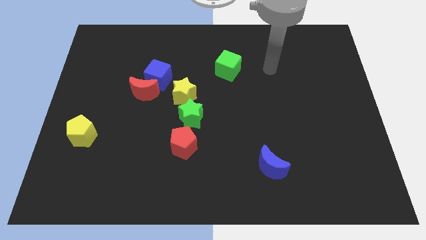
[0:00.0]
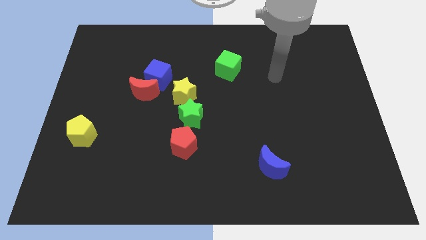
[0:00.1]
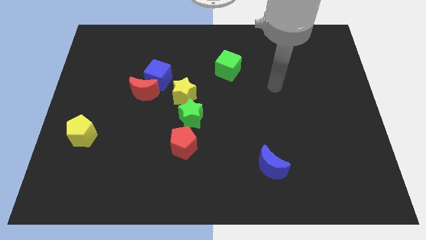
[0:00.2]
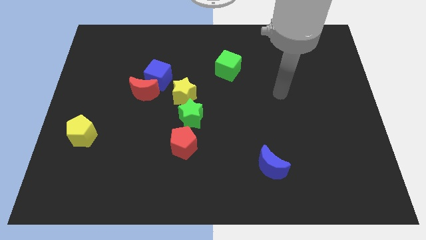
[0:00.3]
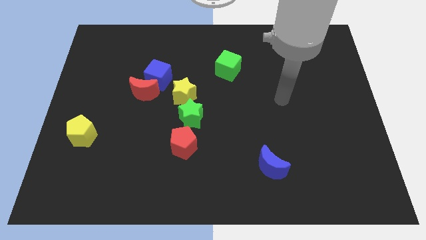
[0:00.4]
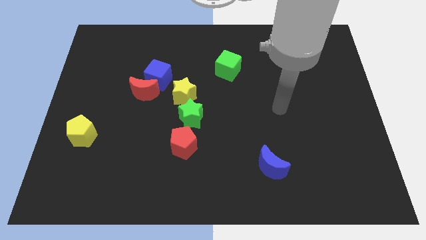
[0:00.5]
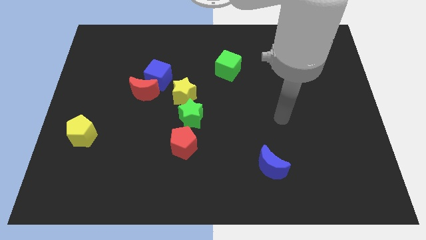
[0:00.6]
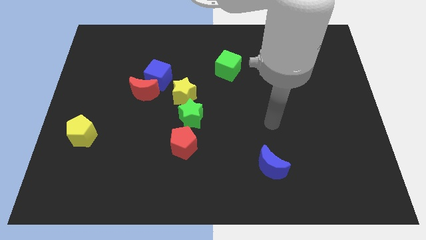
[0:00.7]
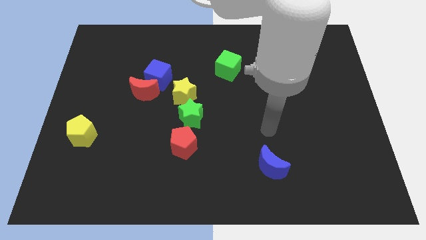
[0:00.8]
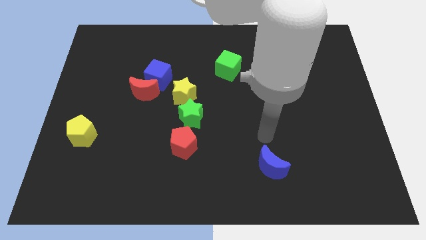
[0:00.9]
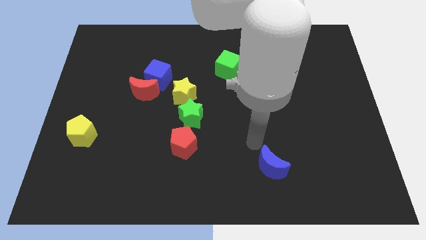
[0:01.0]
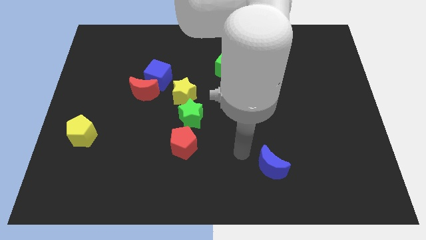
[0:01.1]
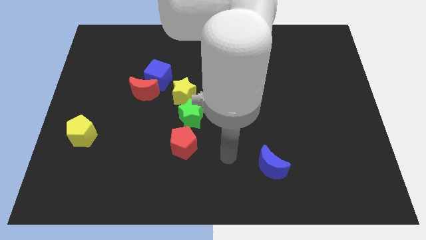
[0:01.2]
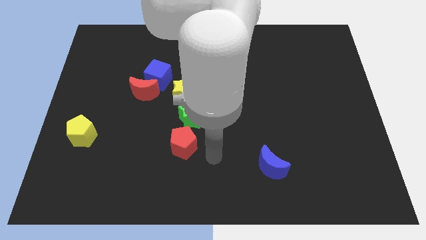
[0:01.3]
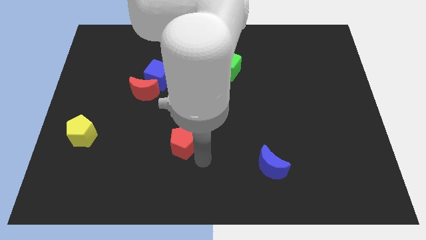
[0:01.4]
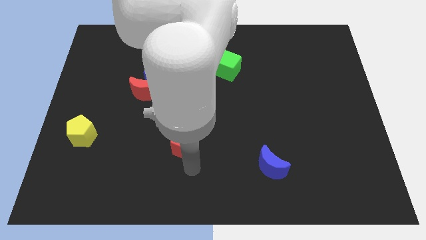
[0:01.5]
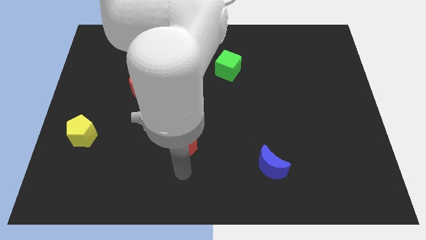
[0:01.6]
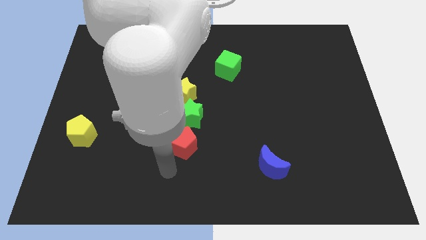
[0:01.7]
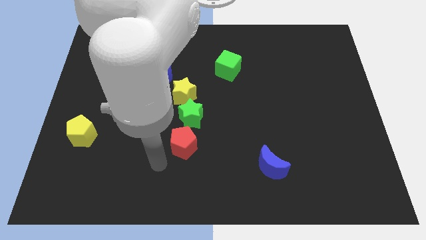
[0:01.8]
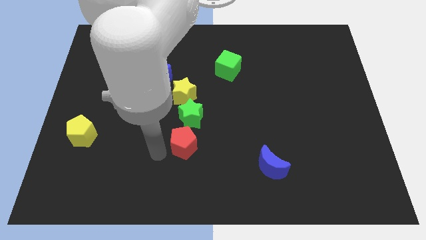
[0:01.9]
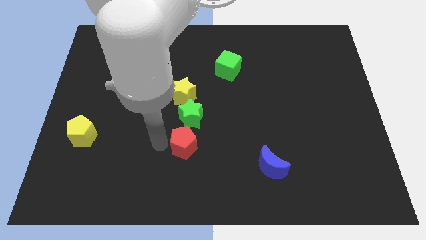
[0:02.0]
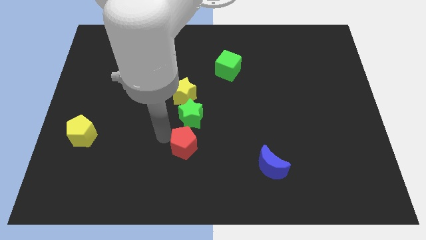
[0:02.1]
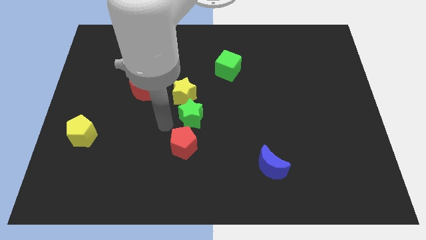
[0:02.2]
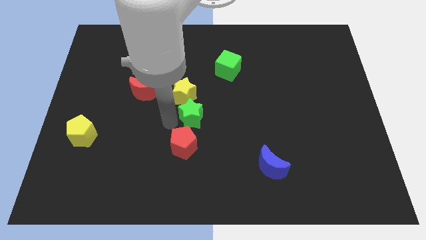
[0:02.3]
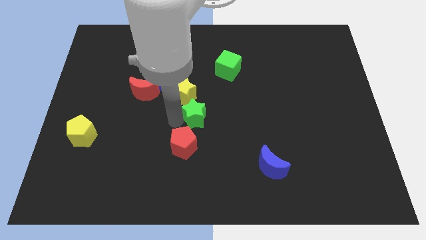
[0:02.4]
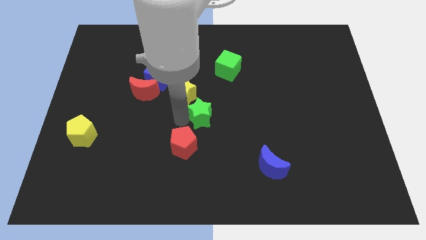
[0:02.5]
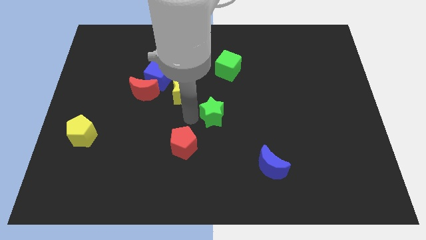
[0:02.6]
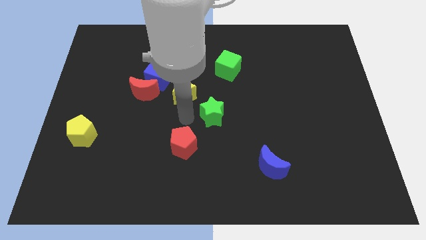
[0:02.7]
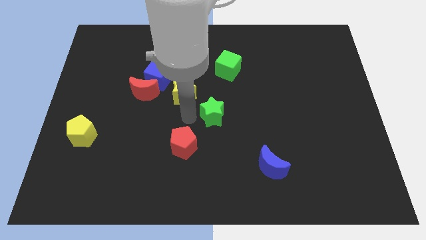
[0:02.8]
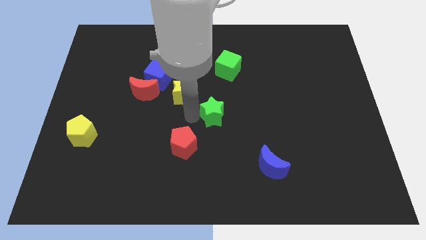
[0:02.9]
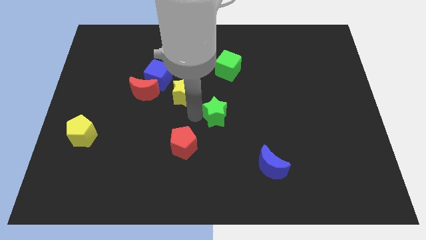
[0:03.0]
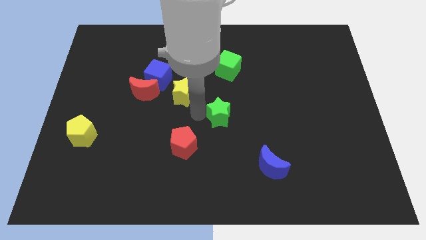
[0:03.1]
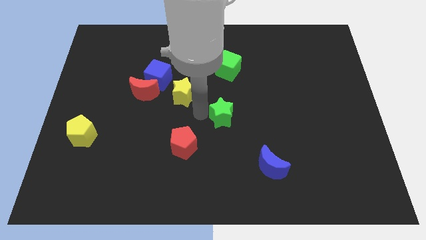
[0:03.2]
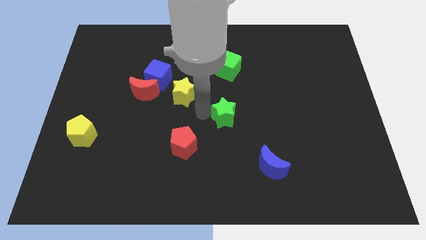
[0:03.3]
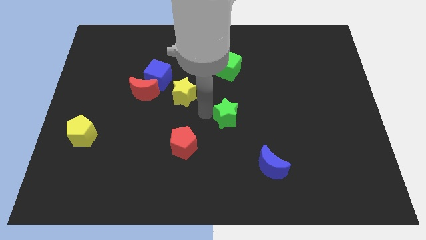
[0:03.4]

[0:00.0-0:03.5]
separate the green star from the yellow star and red pentagon

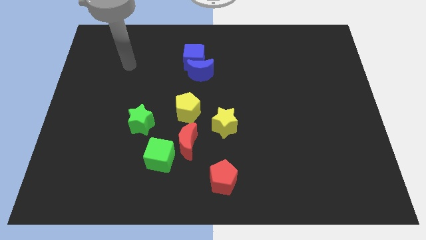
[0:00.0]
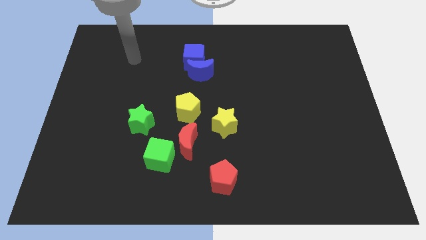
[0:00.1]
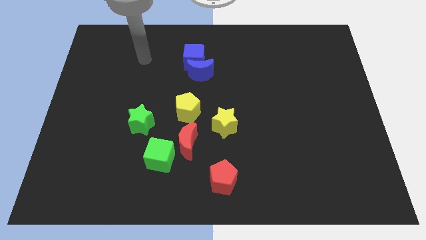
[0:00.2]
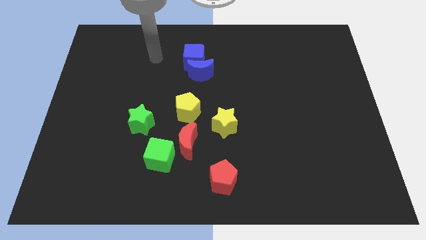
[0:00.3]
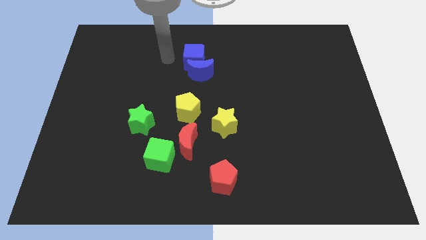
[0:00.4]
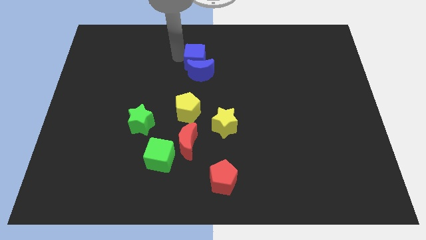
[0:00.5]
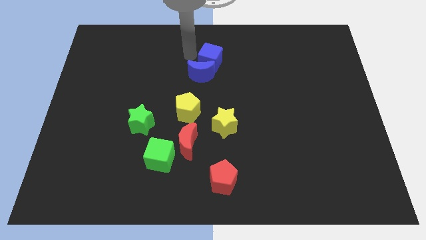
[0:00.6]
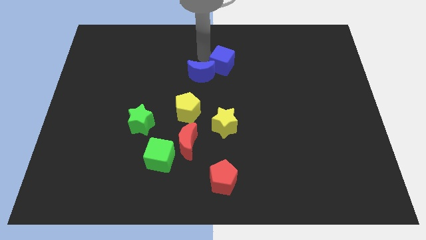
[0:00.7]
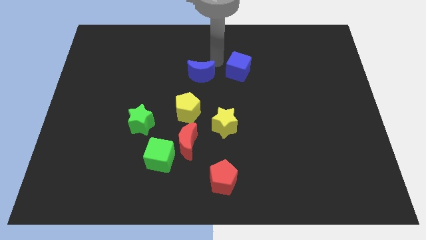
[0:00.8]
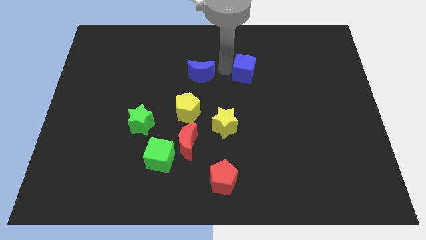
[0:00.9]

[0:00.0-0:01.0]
separate the blue moon from the blue cube

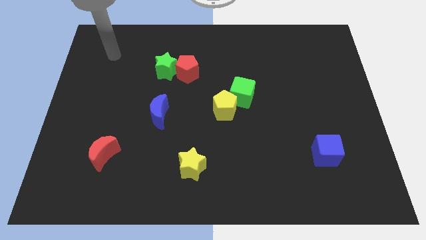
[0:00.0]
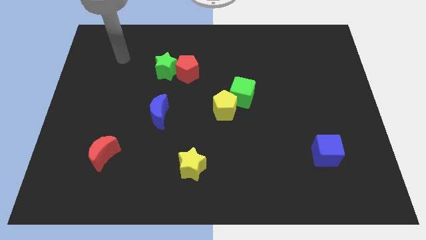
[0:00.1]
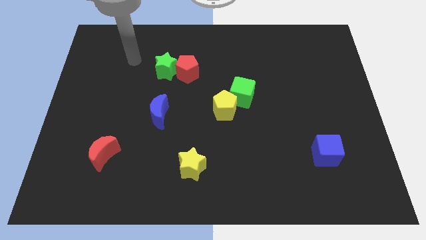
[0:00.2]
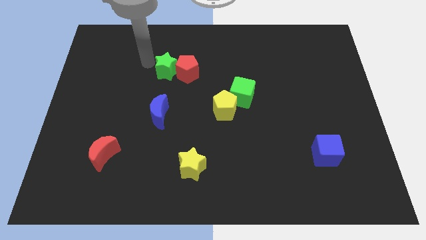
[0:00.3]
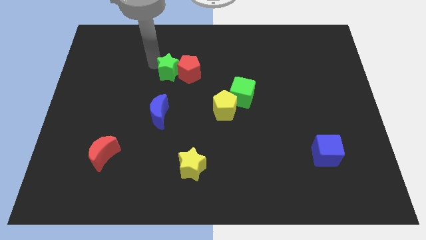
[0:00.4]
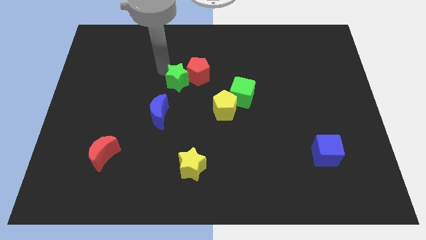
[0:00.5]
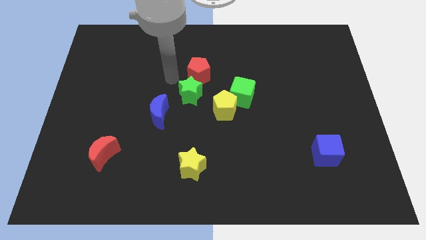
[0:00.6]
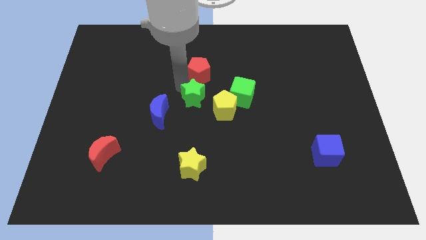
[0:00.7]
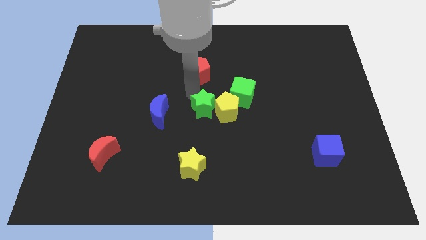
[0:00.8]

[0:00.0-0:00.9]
move the red pentagon away from the green star

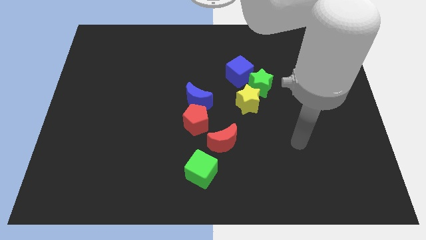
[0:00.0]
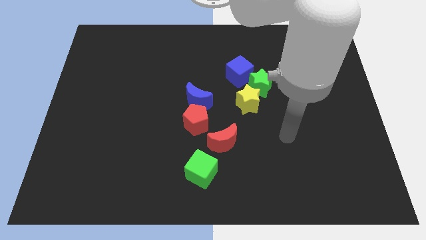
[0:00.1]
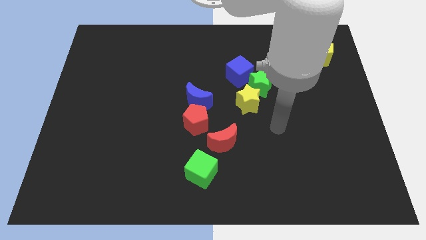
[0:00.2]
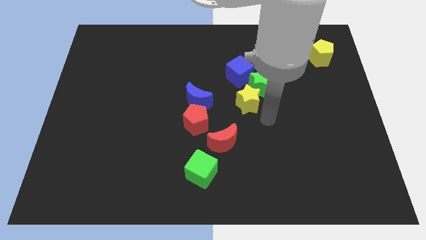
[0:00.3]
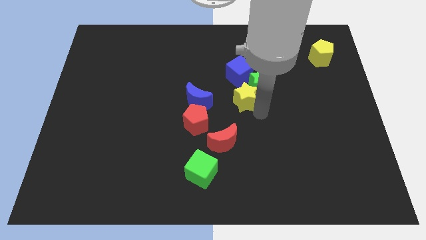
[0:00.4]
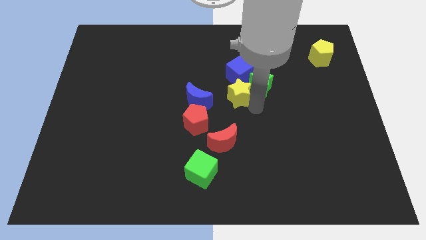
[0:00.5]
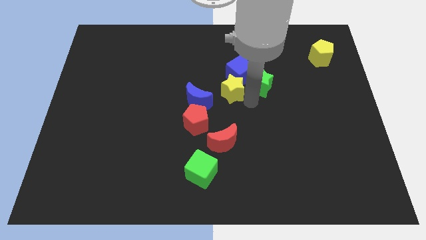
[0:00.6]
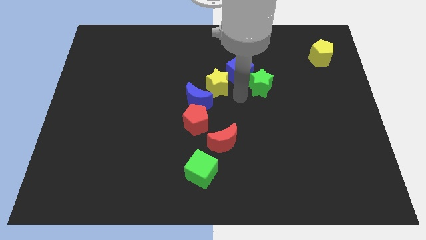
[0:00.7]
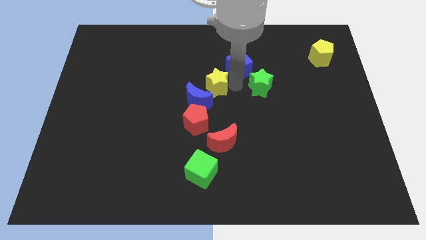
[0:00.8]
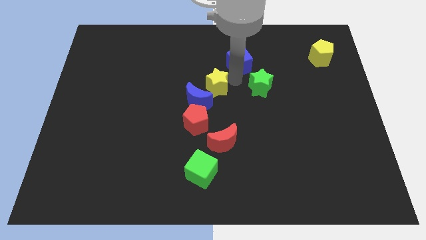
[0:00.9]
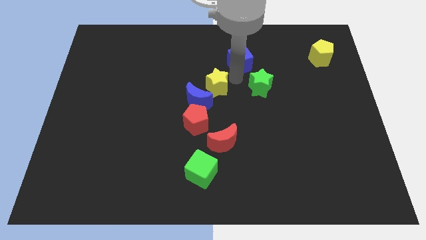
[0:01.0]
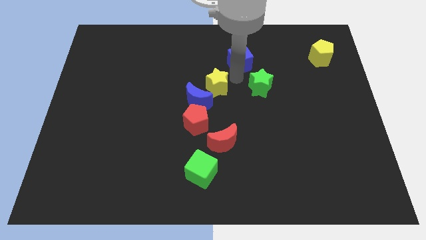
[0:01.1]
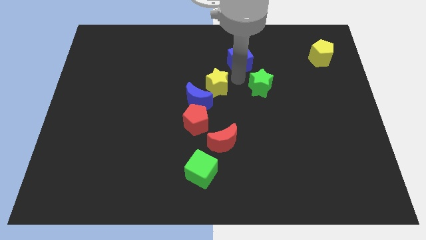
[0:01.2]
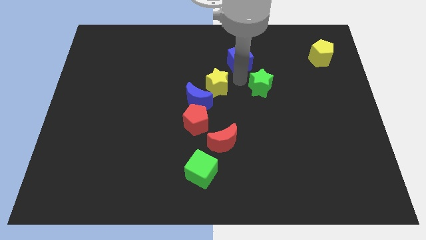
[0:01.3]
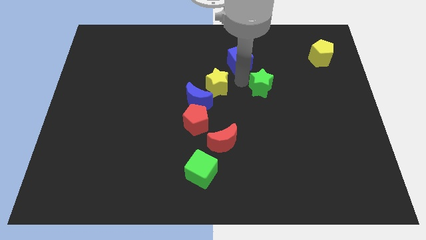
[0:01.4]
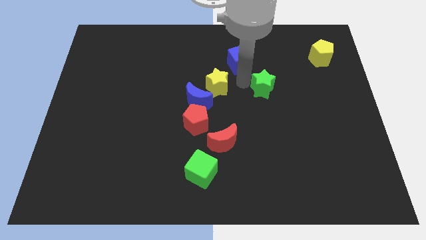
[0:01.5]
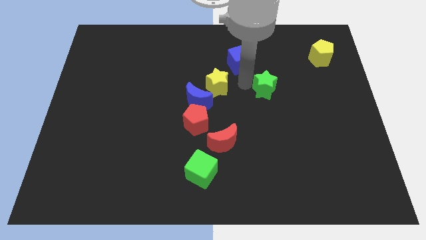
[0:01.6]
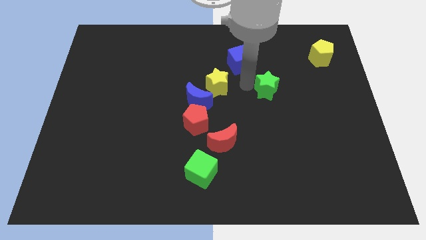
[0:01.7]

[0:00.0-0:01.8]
separate the green star from the yellow star and blue cube

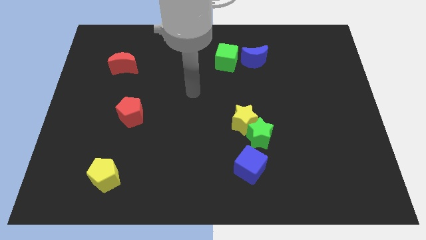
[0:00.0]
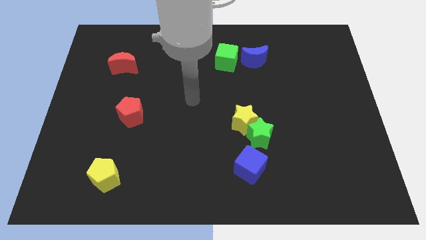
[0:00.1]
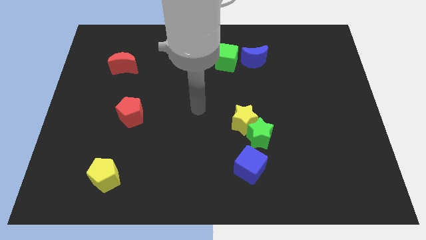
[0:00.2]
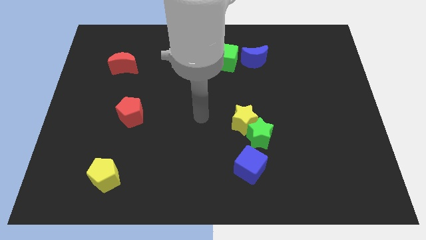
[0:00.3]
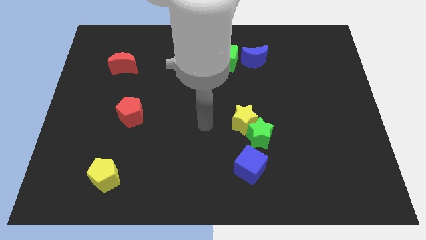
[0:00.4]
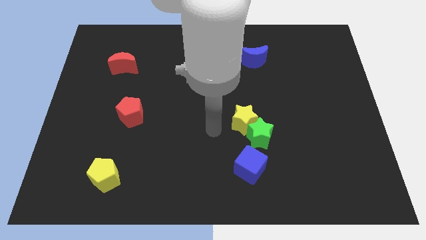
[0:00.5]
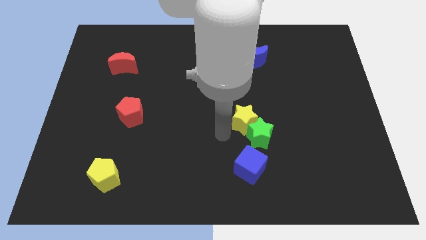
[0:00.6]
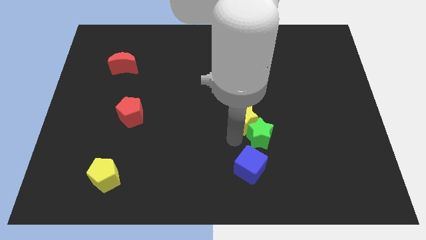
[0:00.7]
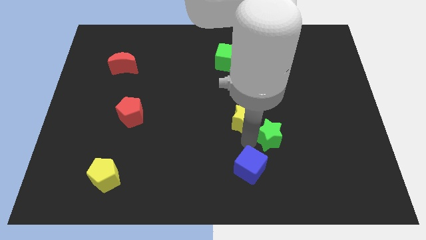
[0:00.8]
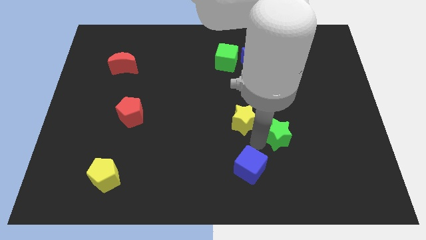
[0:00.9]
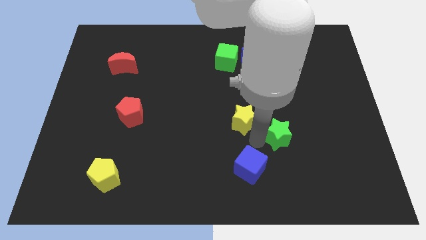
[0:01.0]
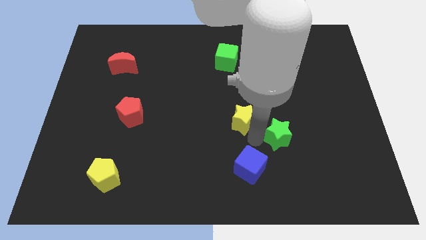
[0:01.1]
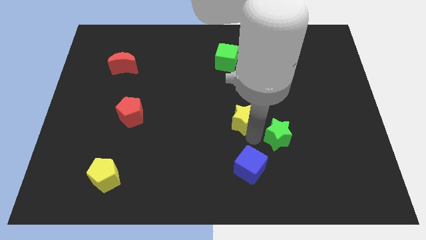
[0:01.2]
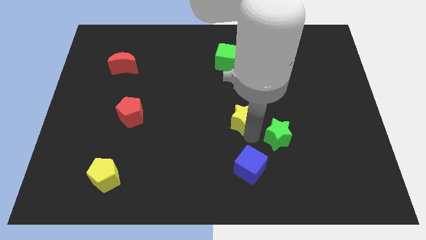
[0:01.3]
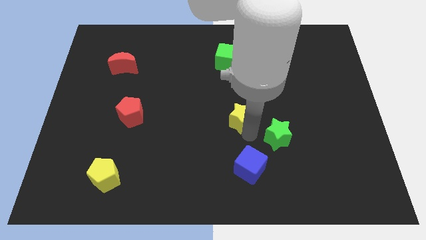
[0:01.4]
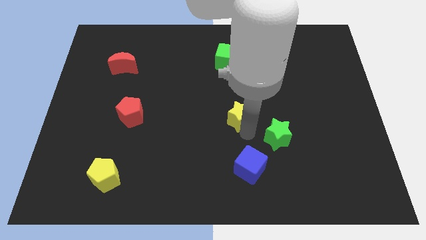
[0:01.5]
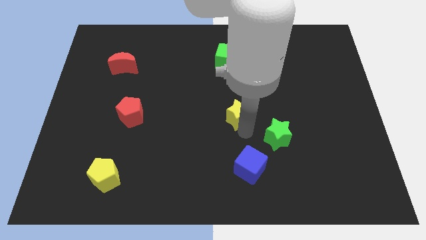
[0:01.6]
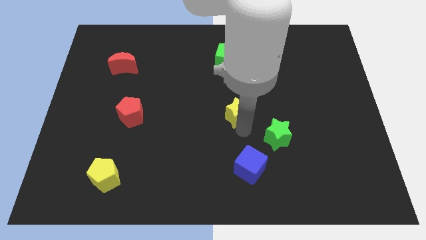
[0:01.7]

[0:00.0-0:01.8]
move the yellow star away from the green star

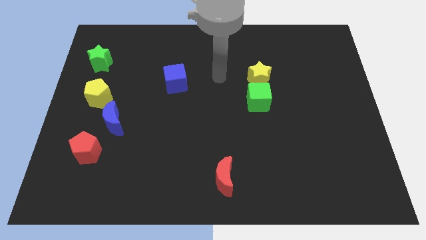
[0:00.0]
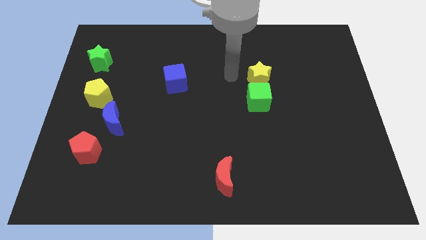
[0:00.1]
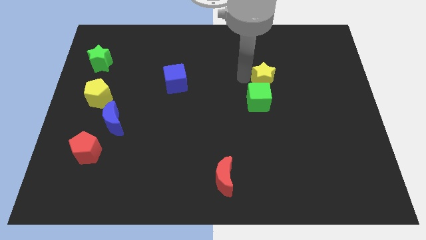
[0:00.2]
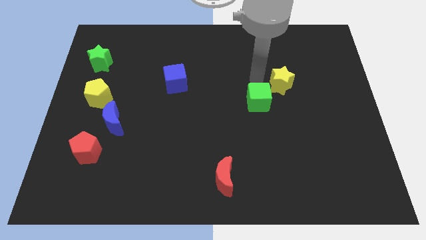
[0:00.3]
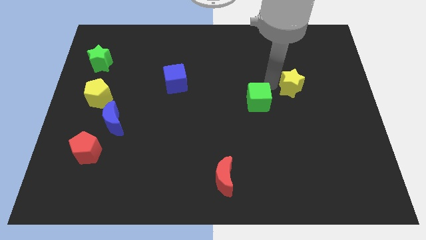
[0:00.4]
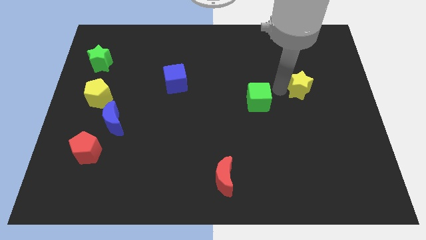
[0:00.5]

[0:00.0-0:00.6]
separate the green cube from the yellow star
